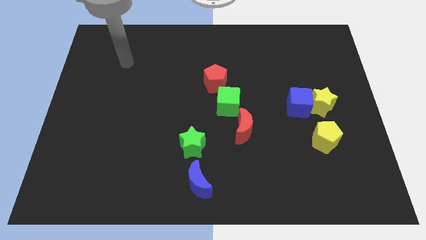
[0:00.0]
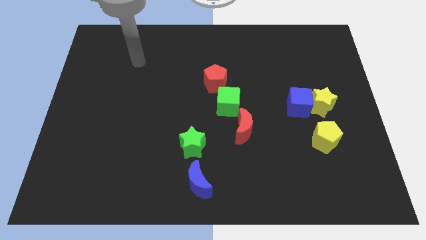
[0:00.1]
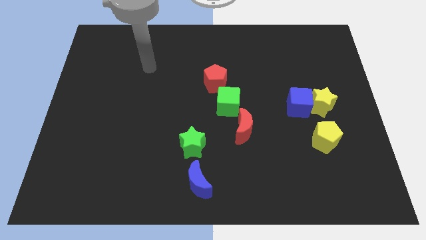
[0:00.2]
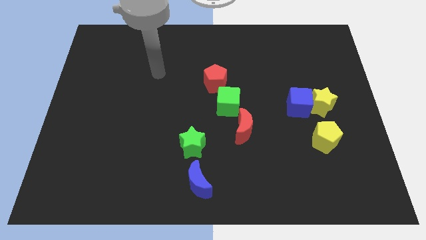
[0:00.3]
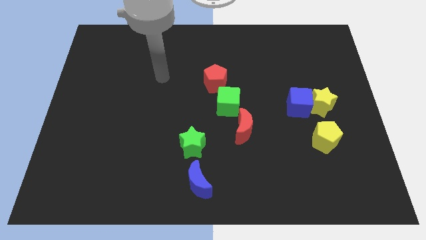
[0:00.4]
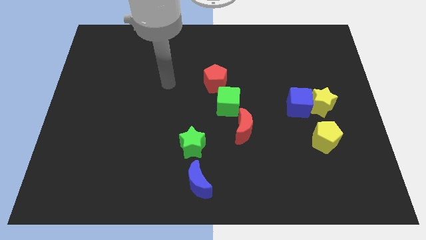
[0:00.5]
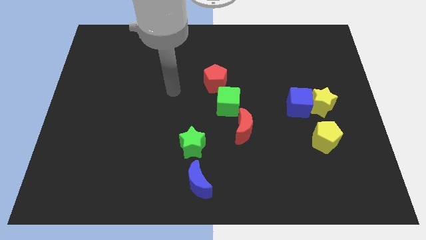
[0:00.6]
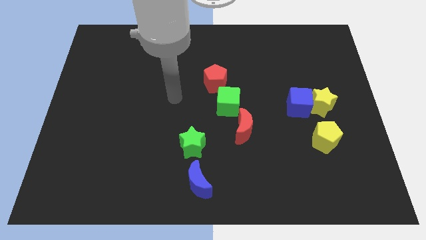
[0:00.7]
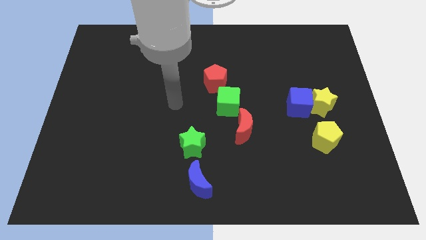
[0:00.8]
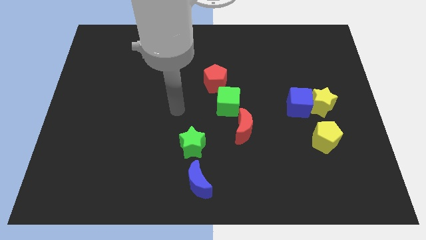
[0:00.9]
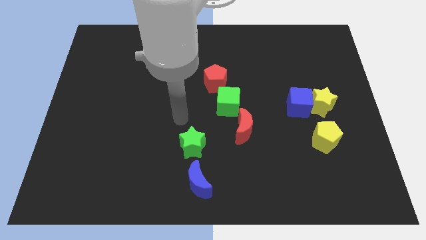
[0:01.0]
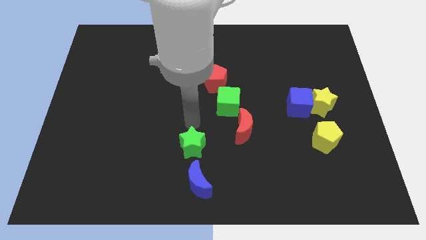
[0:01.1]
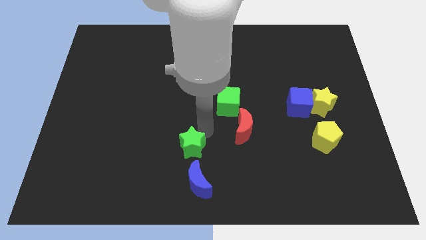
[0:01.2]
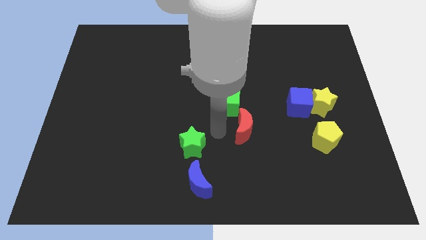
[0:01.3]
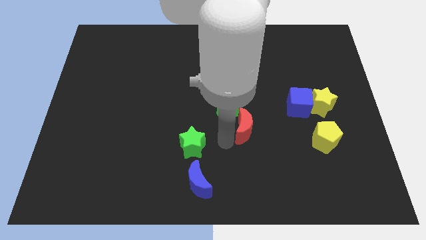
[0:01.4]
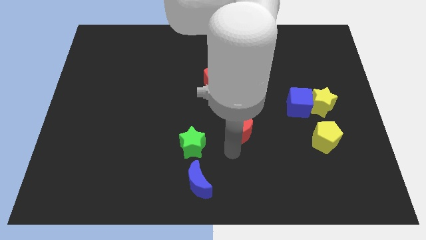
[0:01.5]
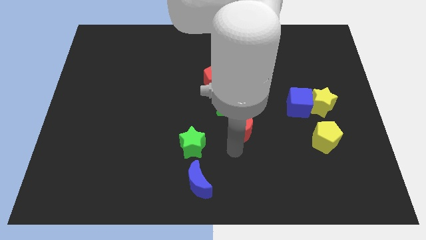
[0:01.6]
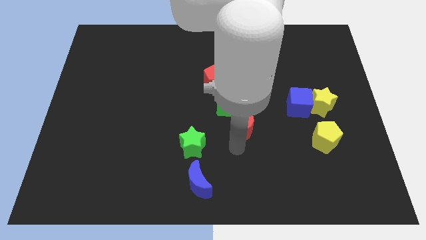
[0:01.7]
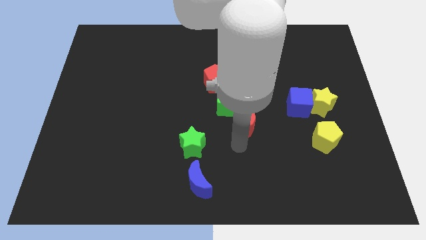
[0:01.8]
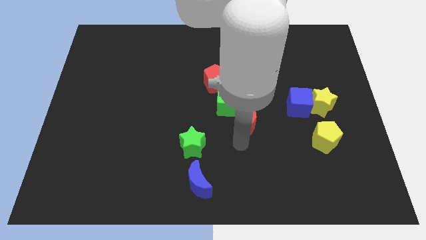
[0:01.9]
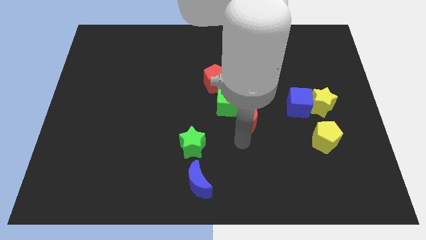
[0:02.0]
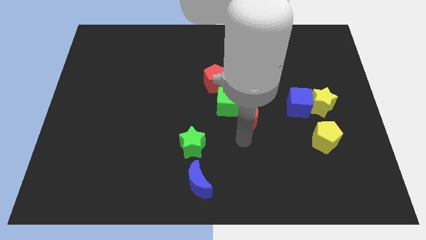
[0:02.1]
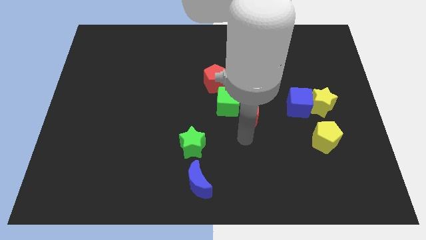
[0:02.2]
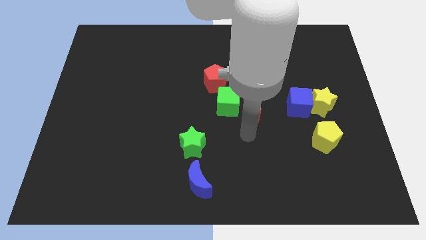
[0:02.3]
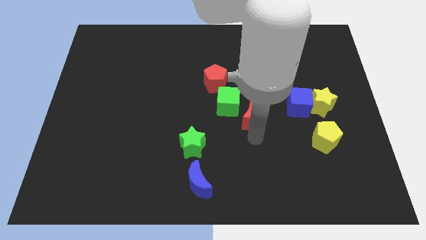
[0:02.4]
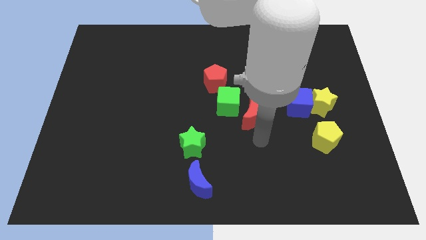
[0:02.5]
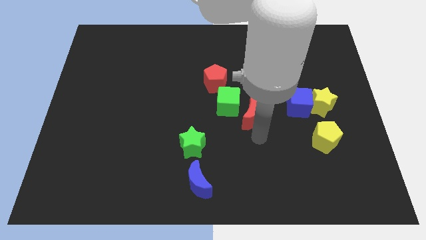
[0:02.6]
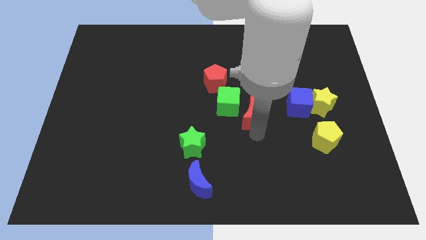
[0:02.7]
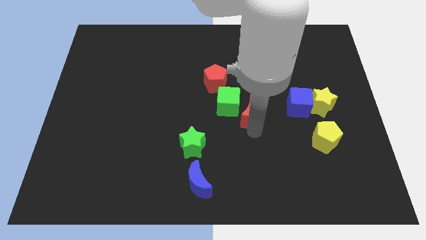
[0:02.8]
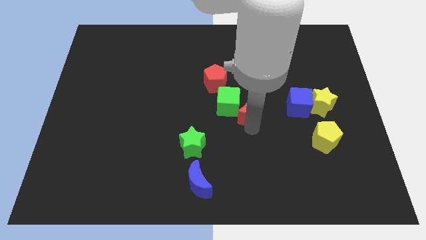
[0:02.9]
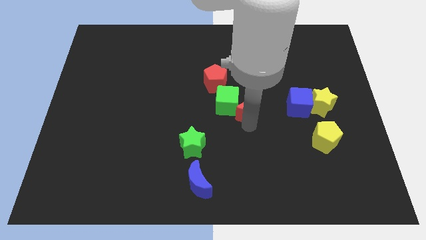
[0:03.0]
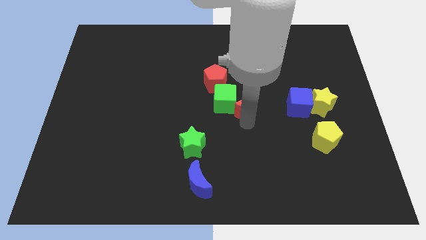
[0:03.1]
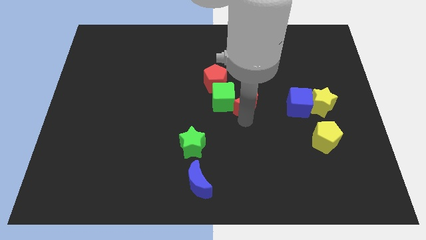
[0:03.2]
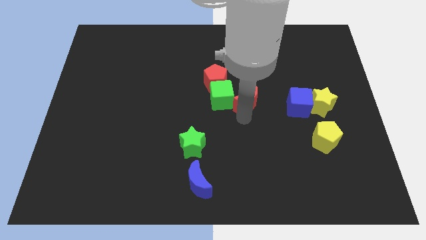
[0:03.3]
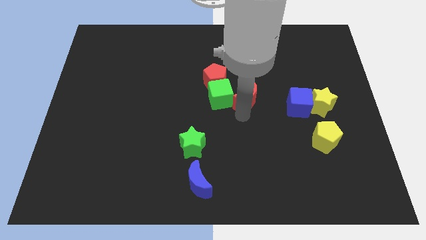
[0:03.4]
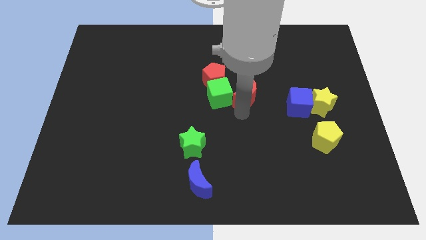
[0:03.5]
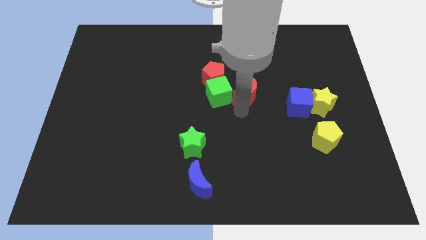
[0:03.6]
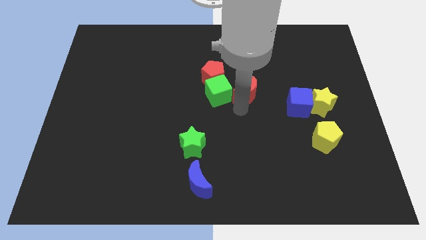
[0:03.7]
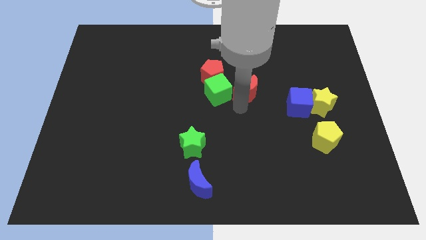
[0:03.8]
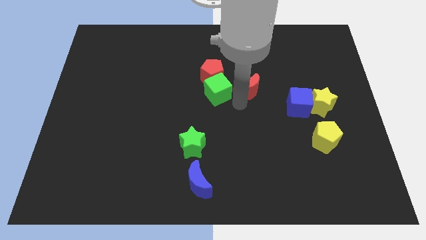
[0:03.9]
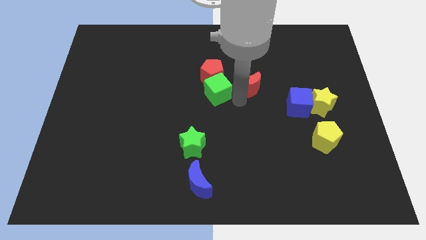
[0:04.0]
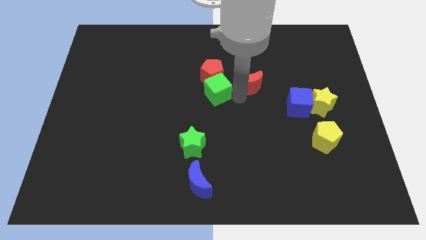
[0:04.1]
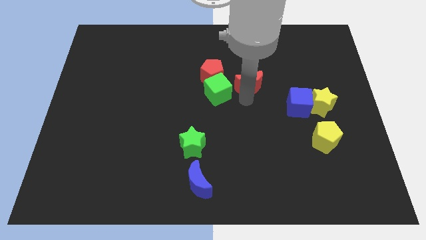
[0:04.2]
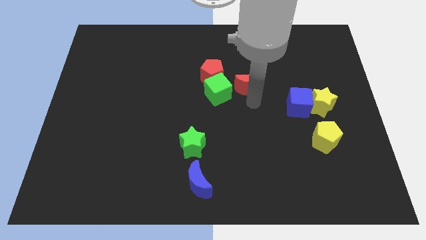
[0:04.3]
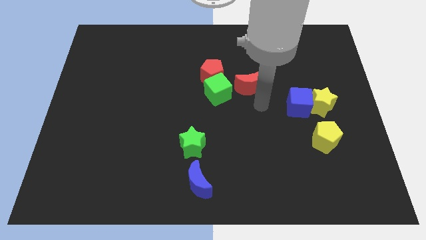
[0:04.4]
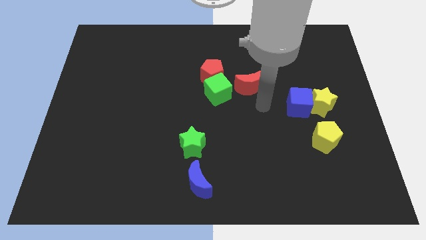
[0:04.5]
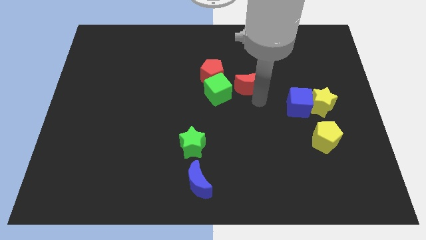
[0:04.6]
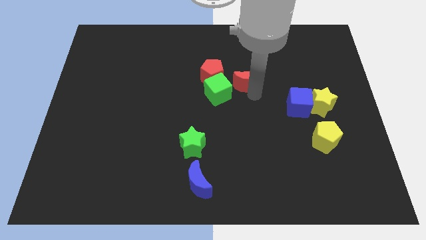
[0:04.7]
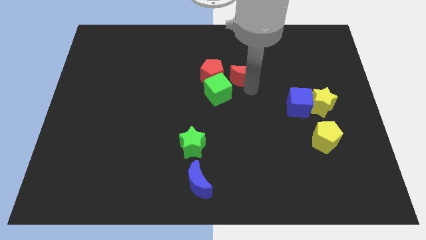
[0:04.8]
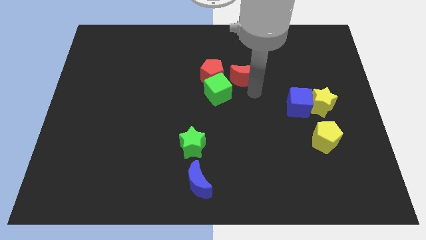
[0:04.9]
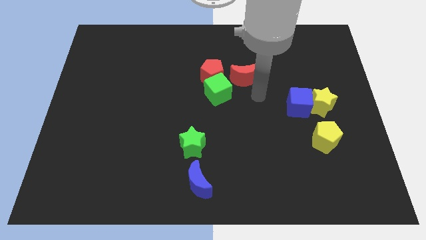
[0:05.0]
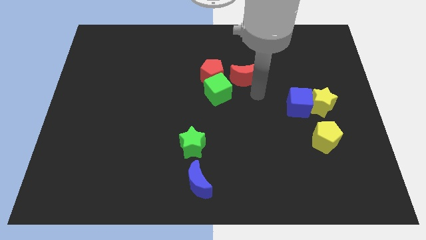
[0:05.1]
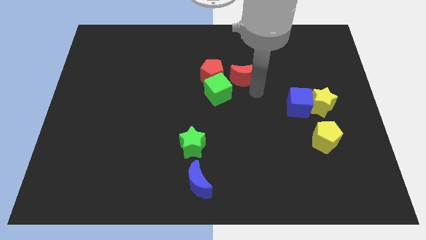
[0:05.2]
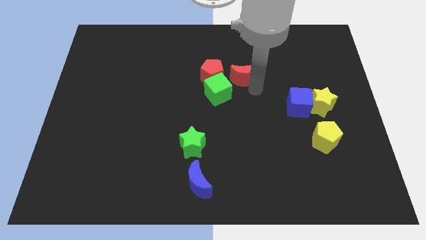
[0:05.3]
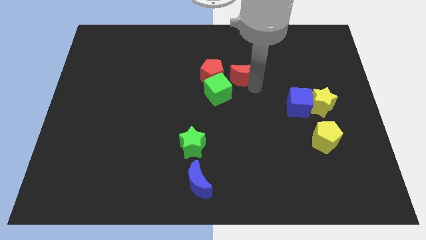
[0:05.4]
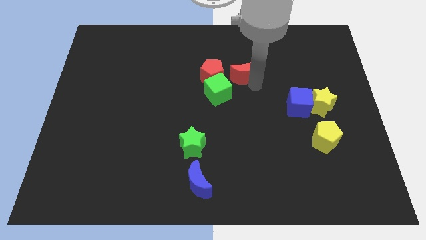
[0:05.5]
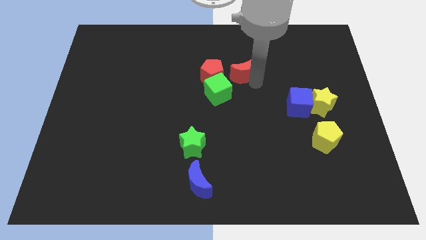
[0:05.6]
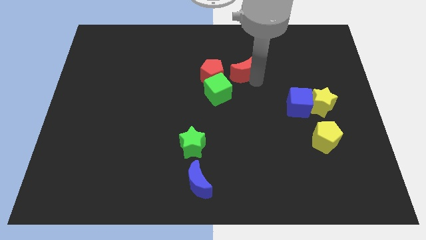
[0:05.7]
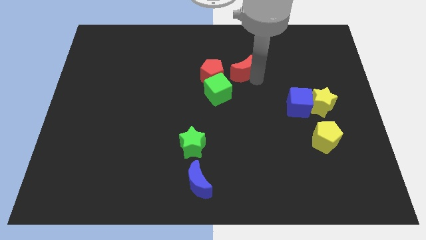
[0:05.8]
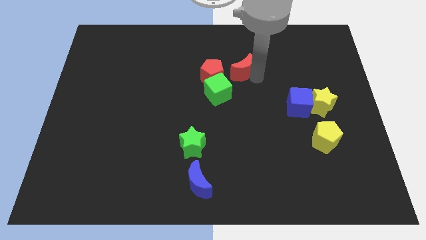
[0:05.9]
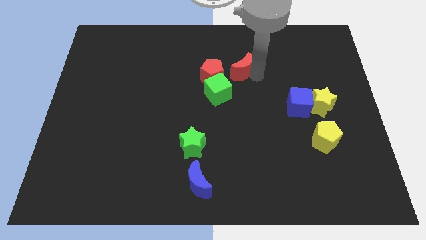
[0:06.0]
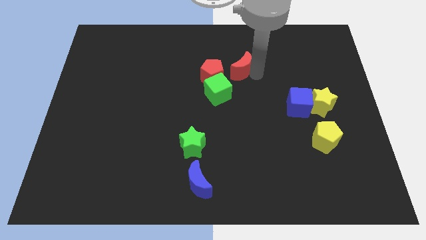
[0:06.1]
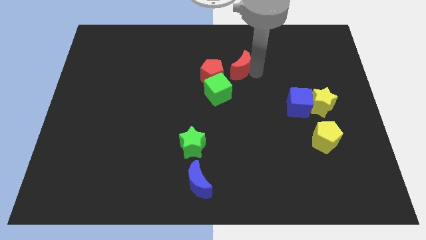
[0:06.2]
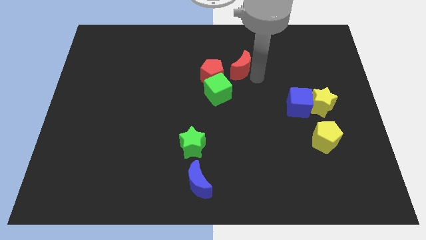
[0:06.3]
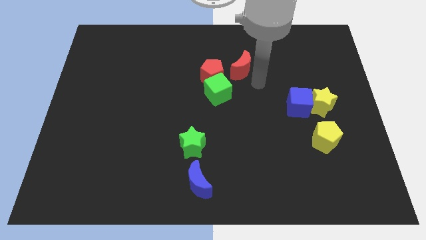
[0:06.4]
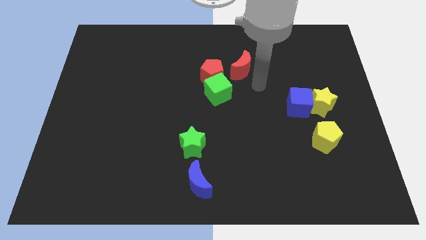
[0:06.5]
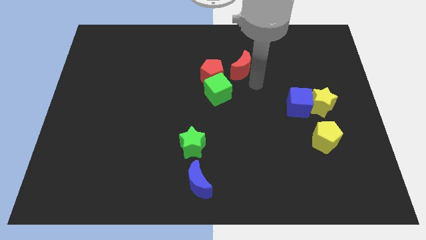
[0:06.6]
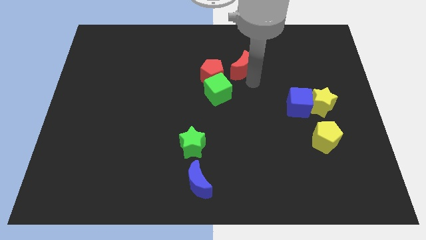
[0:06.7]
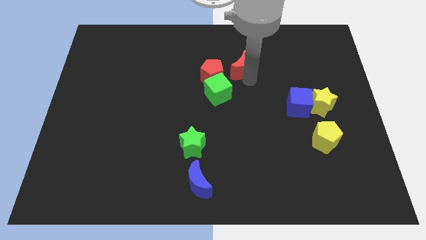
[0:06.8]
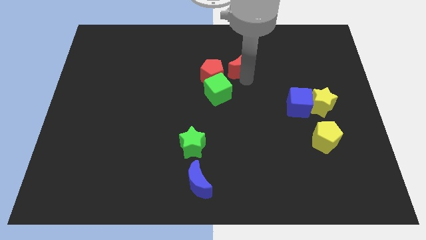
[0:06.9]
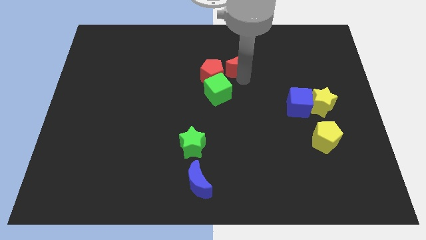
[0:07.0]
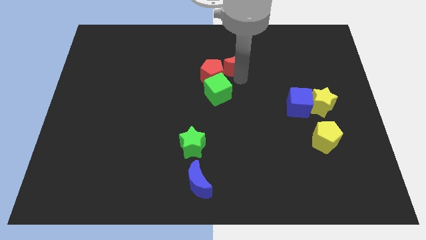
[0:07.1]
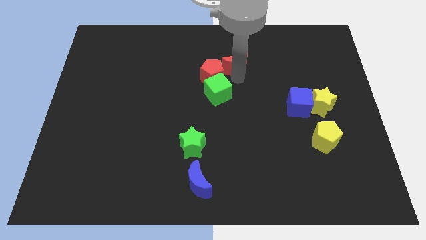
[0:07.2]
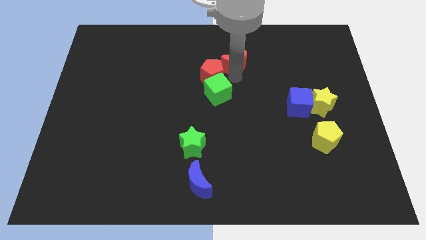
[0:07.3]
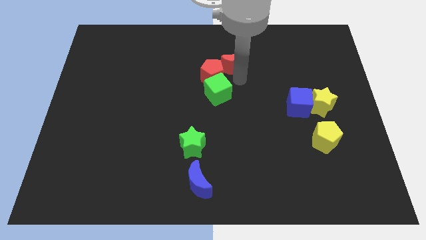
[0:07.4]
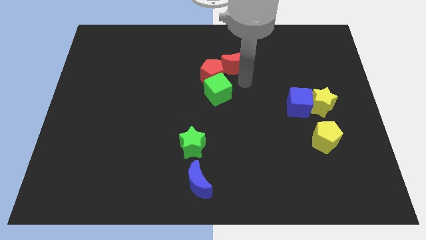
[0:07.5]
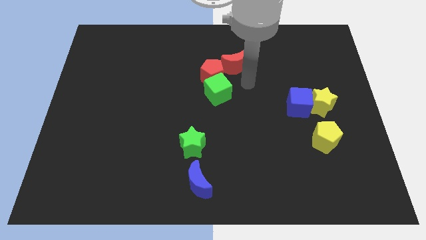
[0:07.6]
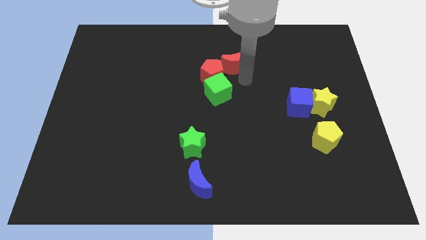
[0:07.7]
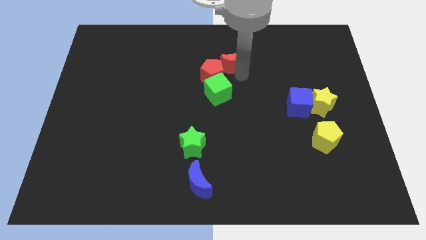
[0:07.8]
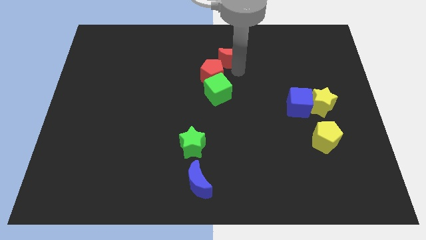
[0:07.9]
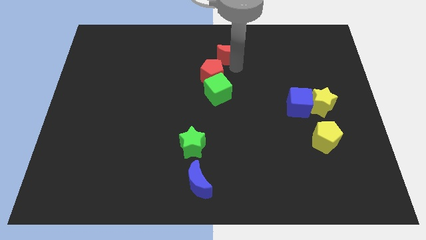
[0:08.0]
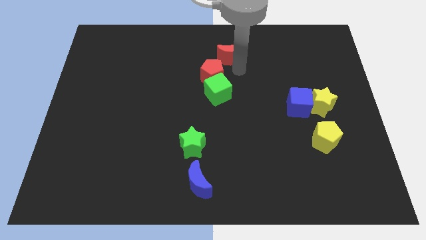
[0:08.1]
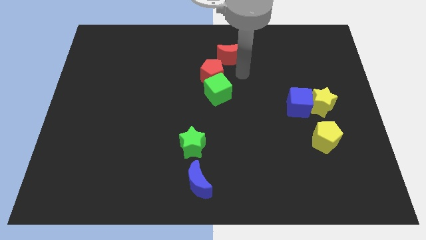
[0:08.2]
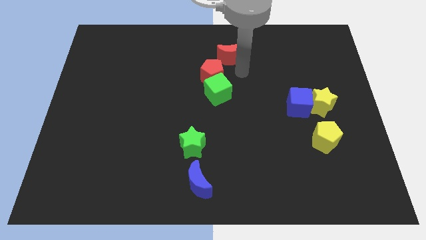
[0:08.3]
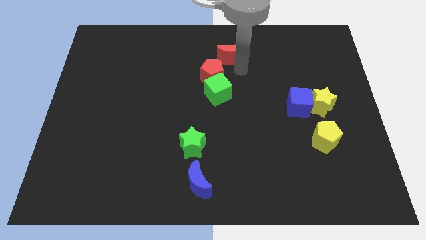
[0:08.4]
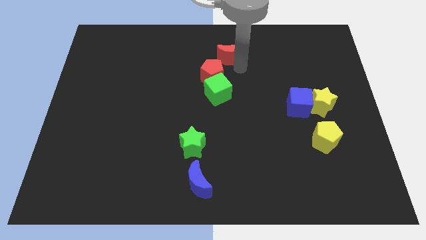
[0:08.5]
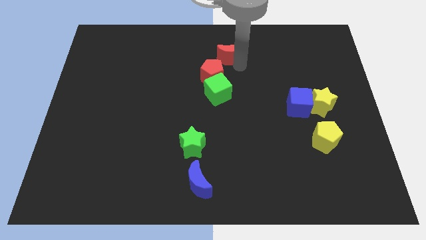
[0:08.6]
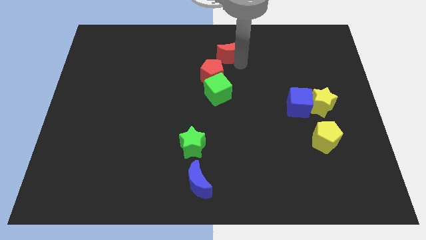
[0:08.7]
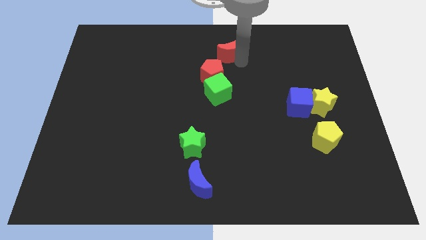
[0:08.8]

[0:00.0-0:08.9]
slide the red moon to the towards your base
